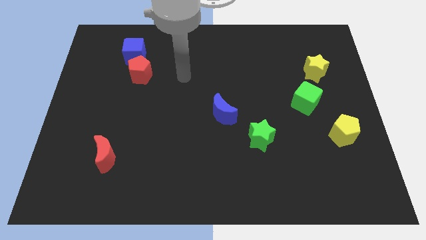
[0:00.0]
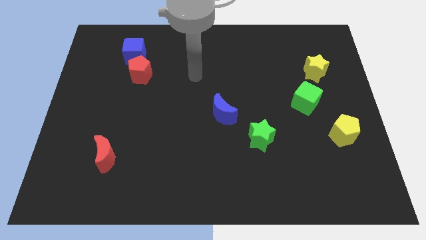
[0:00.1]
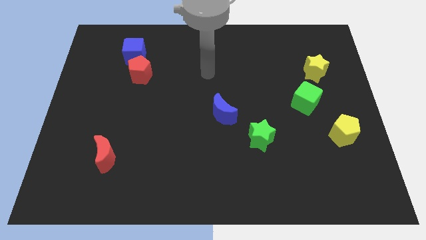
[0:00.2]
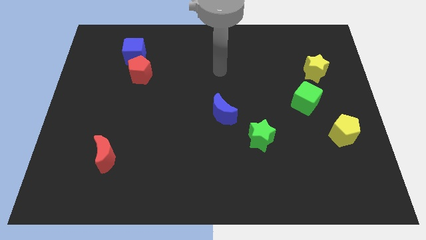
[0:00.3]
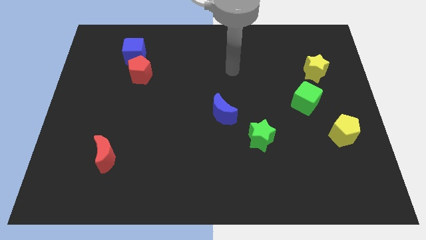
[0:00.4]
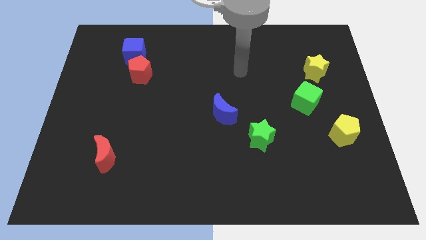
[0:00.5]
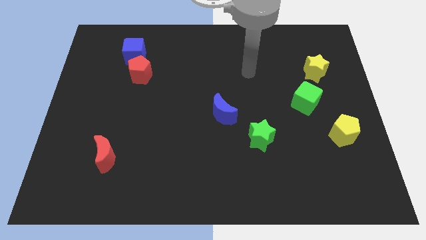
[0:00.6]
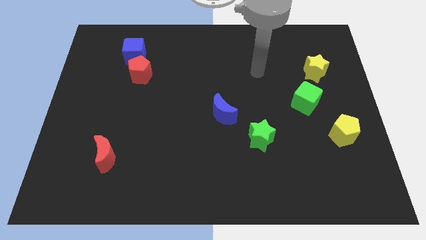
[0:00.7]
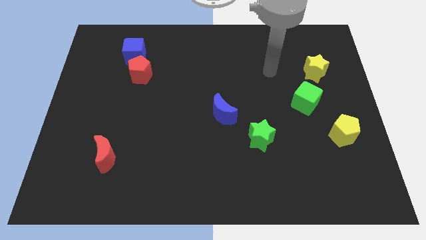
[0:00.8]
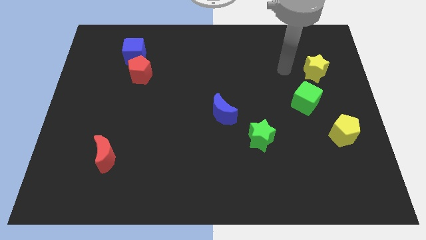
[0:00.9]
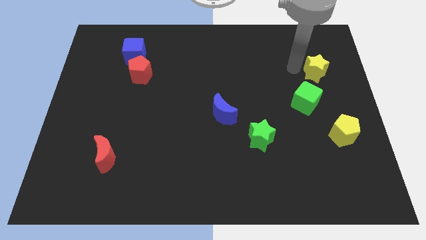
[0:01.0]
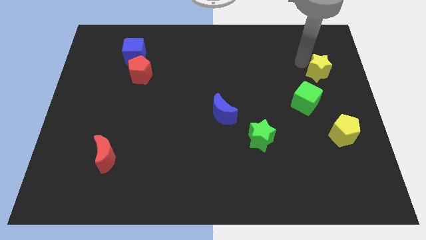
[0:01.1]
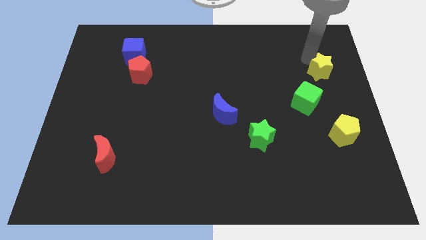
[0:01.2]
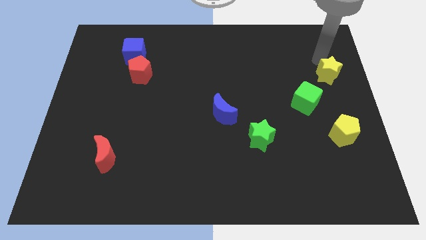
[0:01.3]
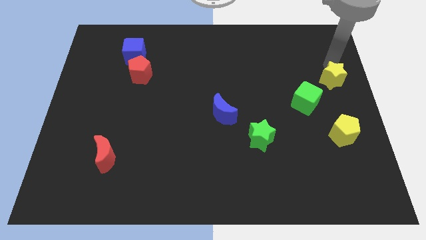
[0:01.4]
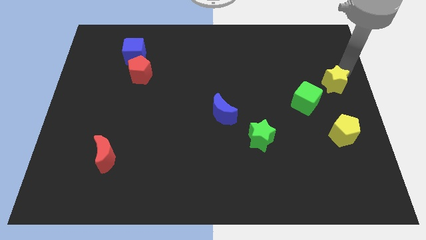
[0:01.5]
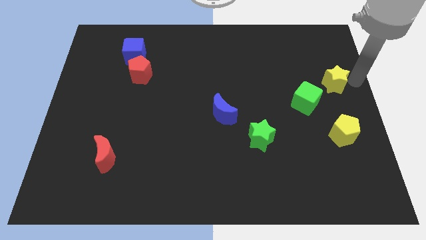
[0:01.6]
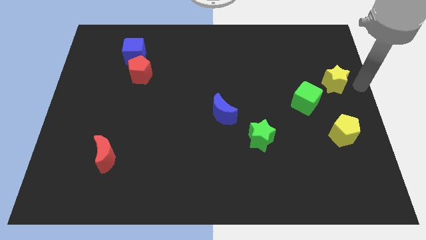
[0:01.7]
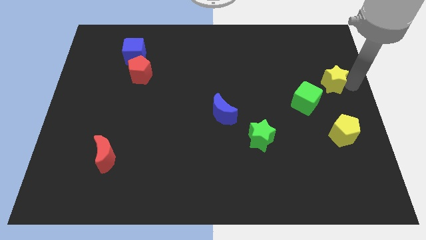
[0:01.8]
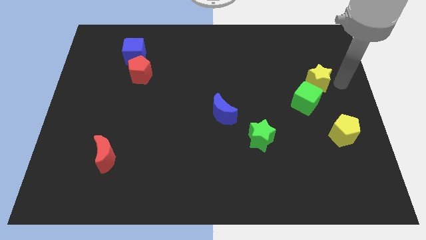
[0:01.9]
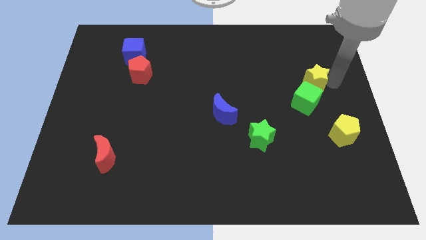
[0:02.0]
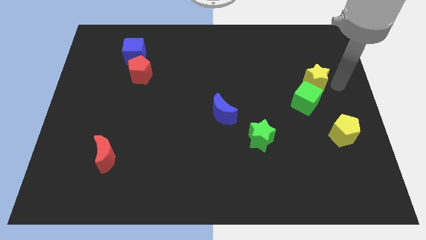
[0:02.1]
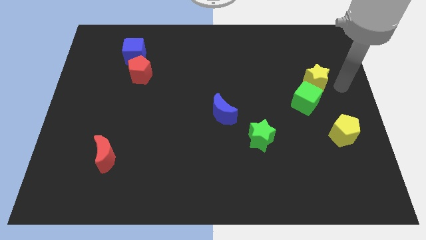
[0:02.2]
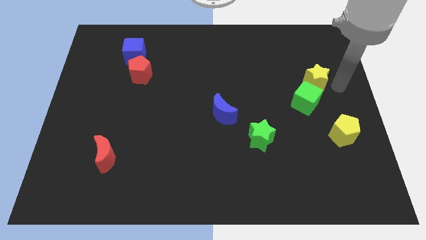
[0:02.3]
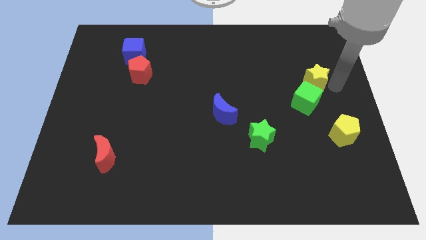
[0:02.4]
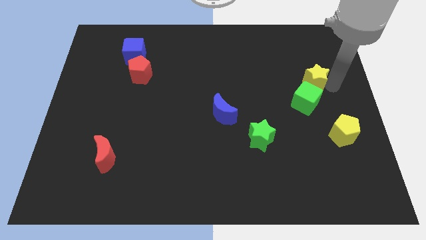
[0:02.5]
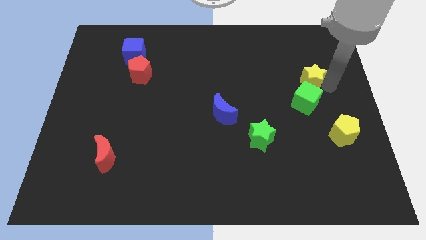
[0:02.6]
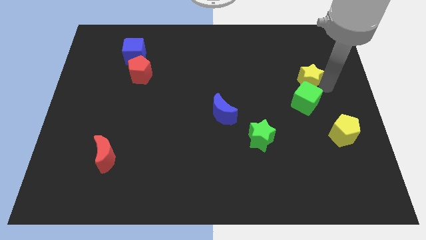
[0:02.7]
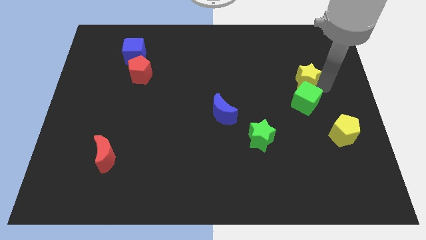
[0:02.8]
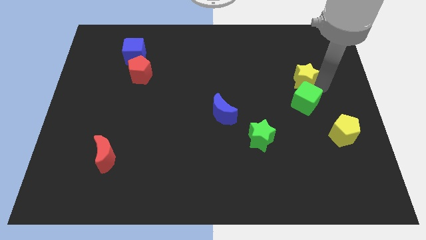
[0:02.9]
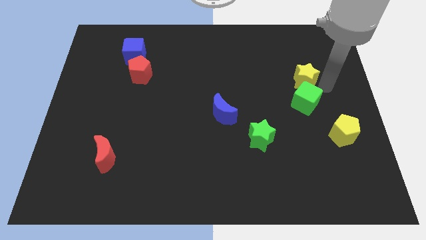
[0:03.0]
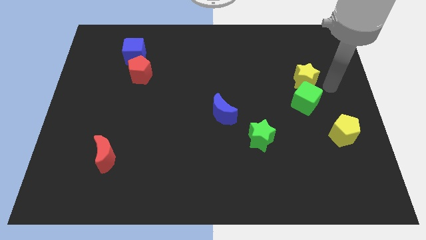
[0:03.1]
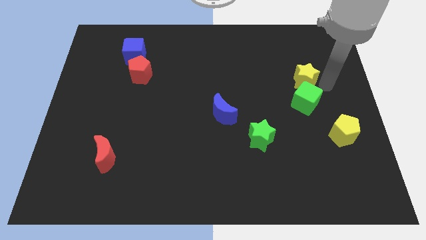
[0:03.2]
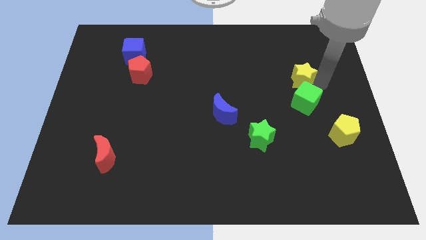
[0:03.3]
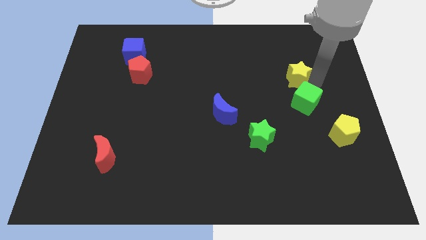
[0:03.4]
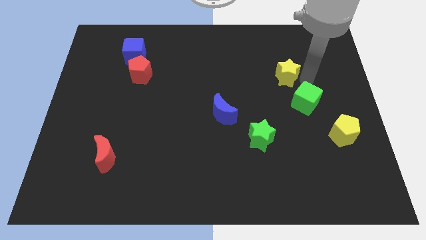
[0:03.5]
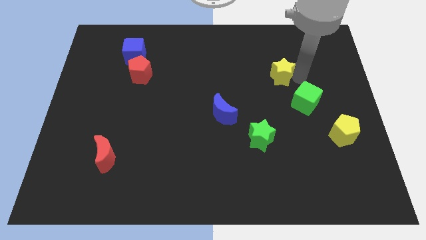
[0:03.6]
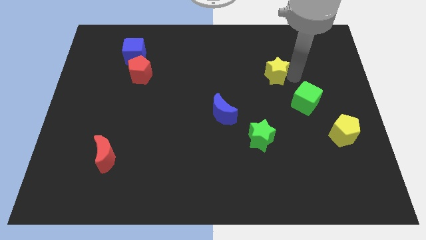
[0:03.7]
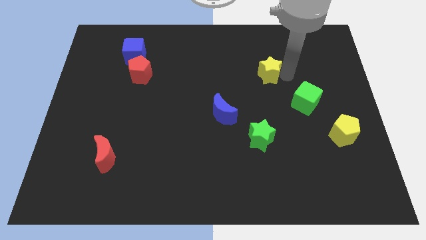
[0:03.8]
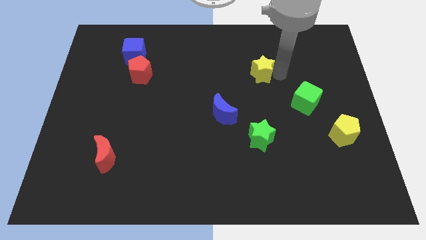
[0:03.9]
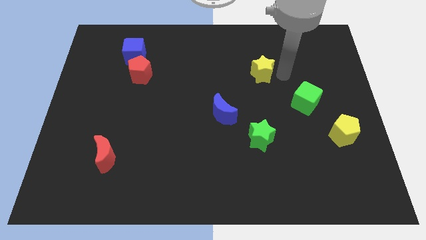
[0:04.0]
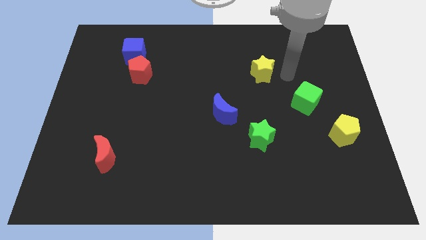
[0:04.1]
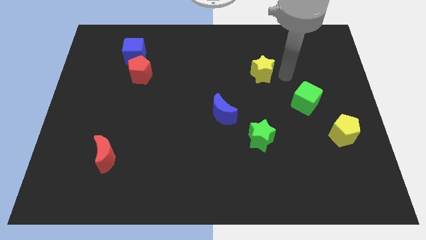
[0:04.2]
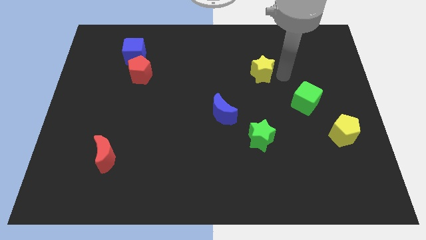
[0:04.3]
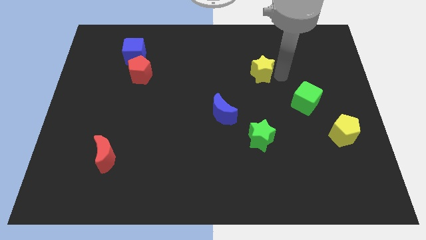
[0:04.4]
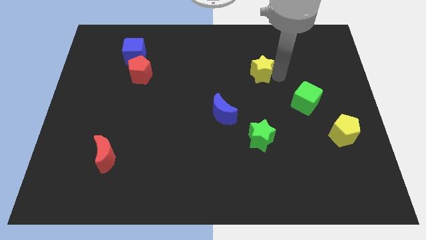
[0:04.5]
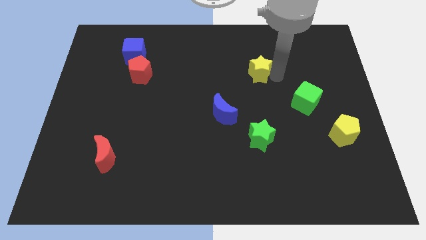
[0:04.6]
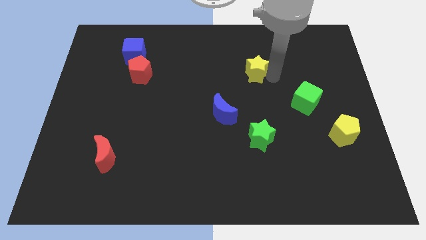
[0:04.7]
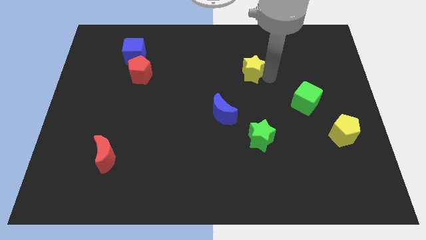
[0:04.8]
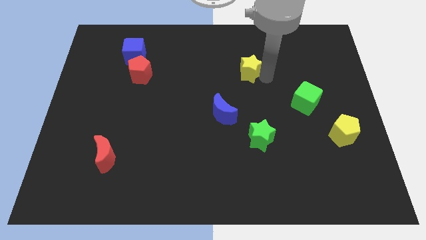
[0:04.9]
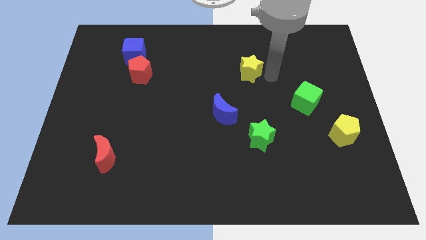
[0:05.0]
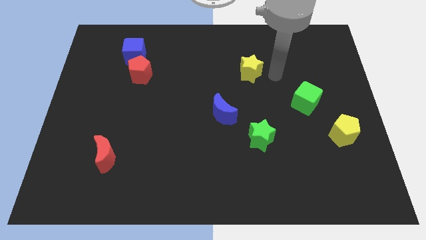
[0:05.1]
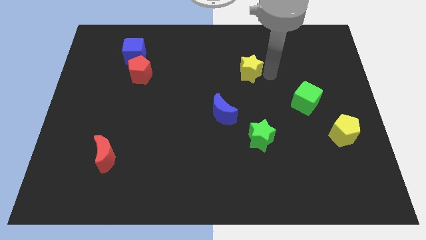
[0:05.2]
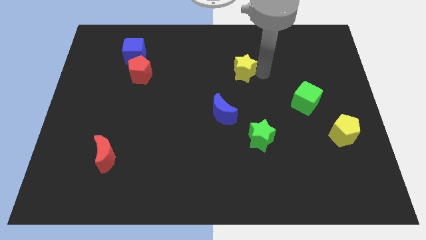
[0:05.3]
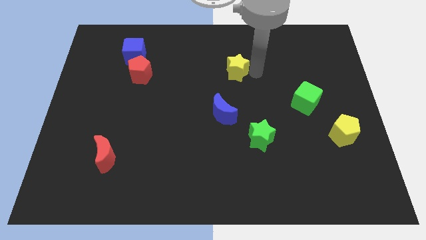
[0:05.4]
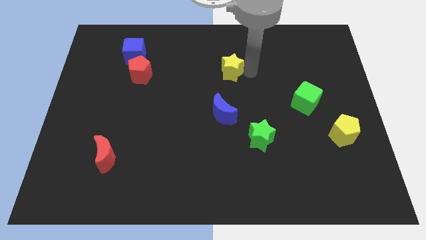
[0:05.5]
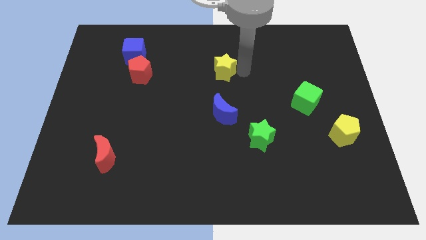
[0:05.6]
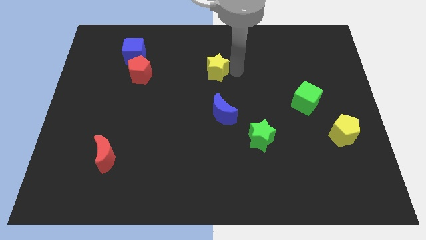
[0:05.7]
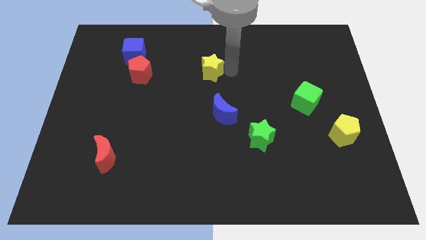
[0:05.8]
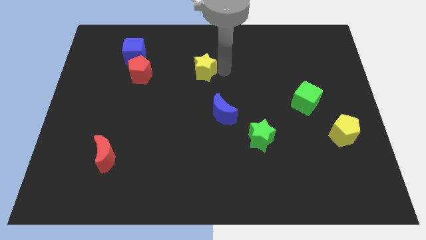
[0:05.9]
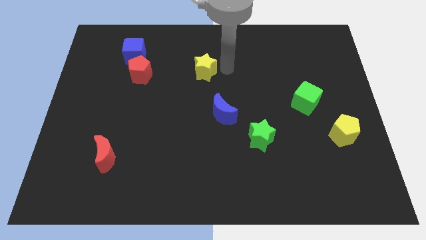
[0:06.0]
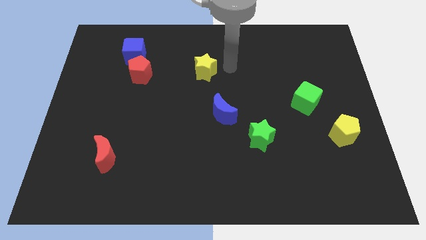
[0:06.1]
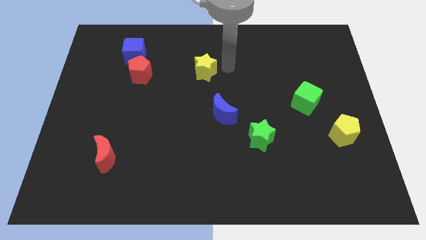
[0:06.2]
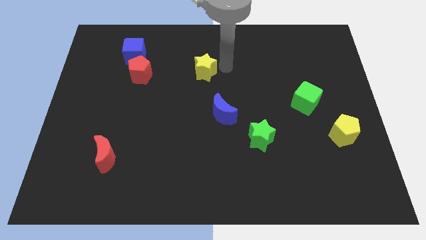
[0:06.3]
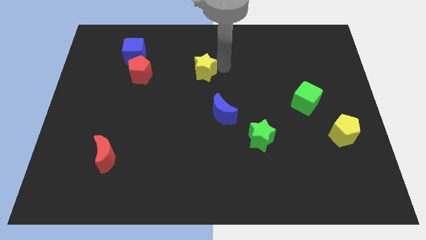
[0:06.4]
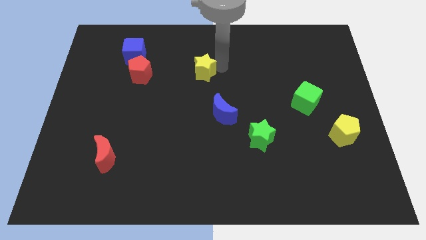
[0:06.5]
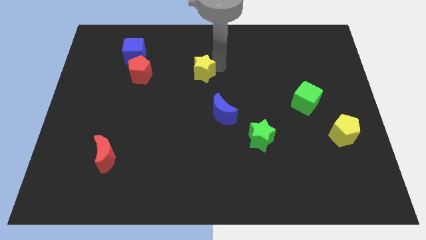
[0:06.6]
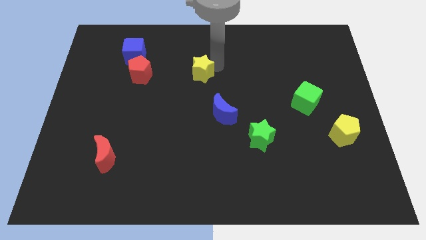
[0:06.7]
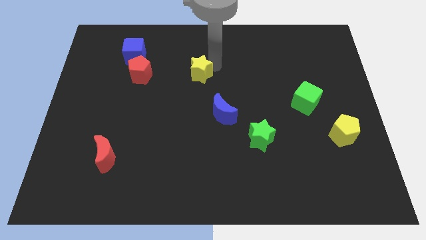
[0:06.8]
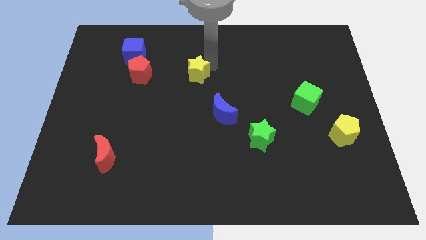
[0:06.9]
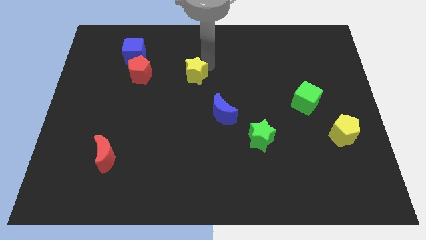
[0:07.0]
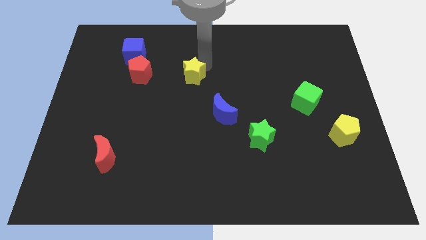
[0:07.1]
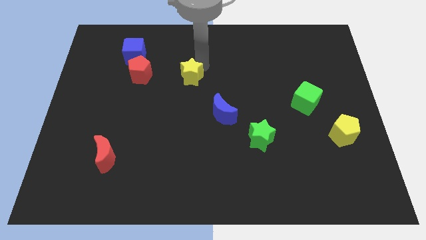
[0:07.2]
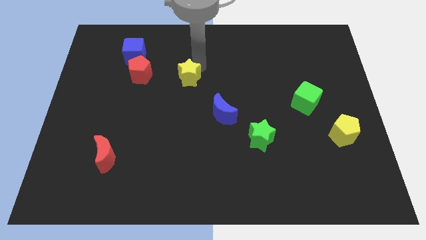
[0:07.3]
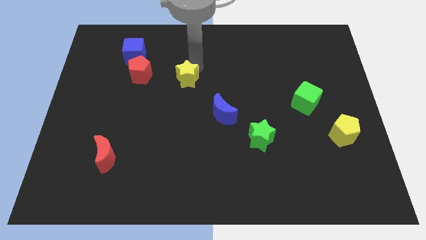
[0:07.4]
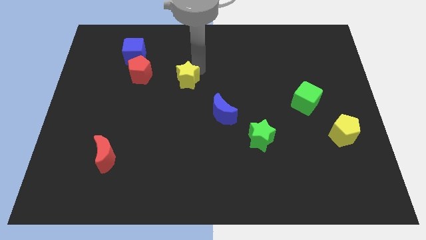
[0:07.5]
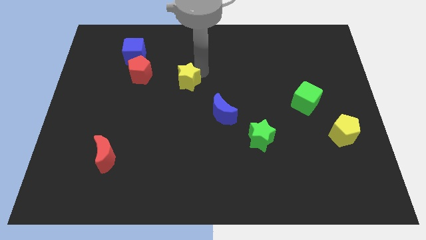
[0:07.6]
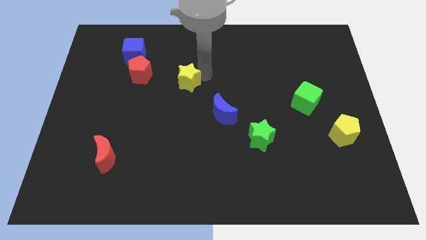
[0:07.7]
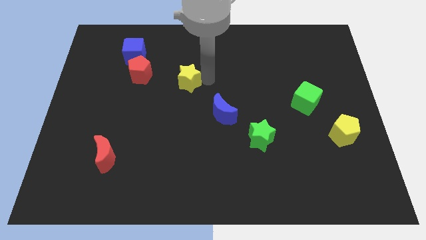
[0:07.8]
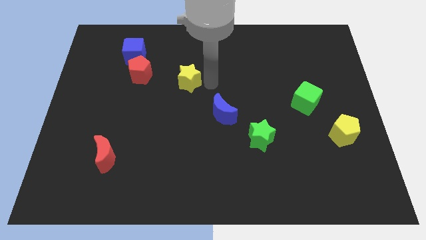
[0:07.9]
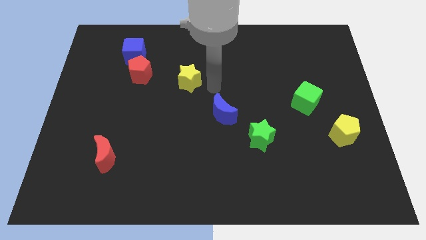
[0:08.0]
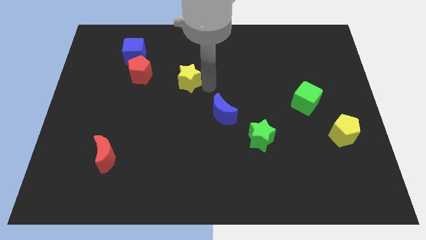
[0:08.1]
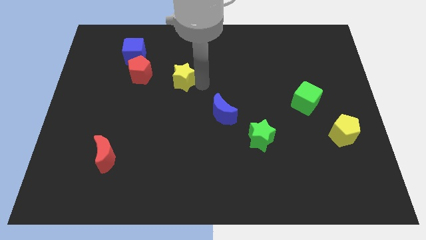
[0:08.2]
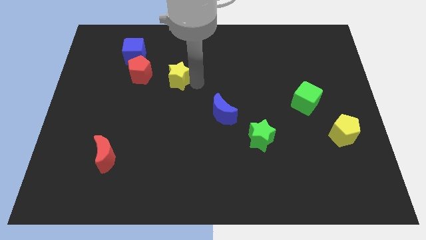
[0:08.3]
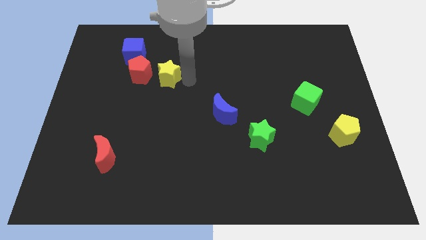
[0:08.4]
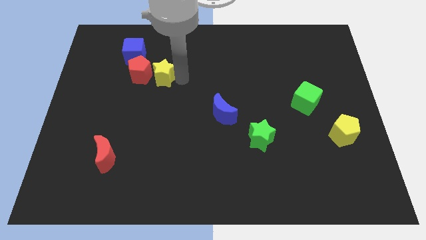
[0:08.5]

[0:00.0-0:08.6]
push the yellow star towards the red pentagon
